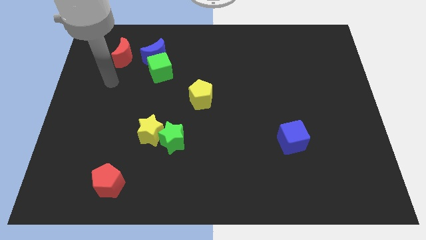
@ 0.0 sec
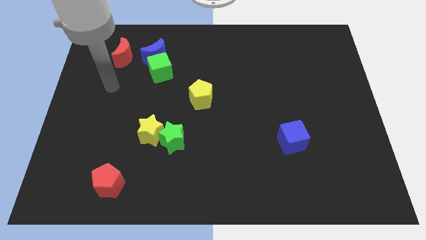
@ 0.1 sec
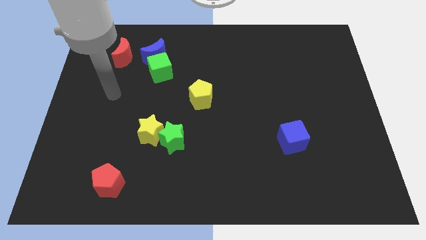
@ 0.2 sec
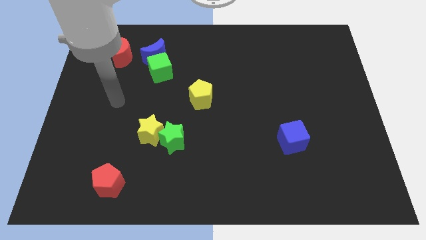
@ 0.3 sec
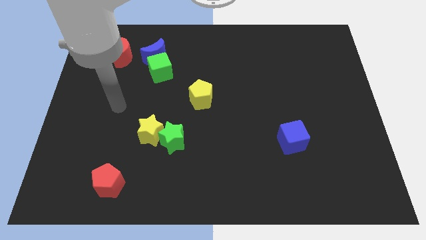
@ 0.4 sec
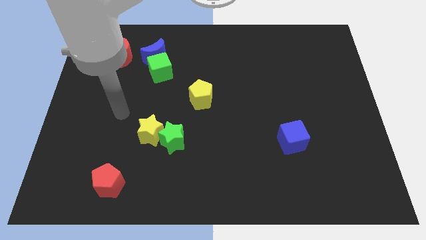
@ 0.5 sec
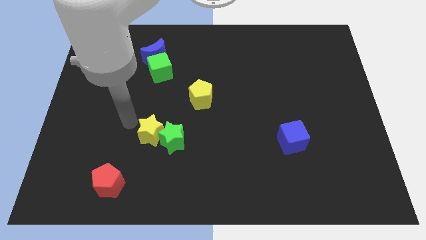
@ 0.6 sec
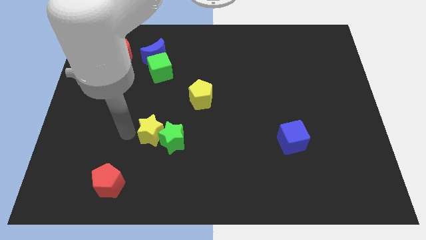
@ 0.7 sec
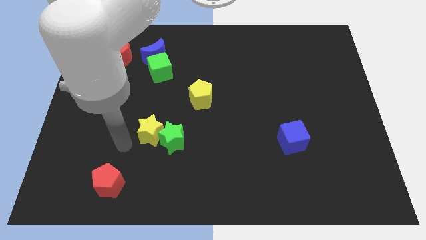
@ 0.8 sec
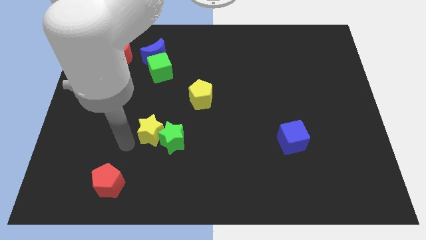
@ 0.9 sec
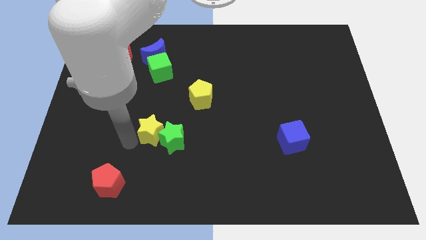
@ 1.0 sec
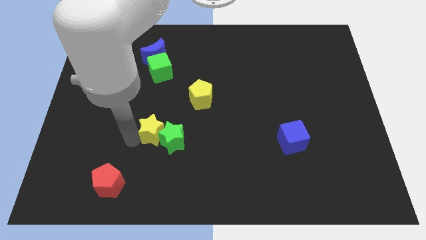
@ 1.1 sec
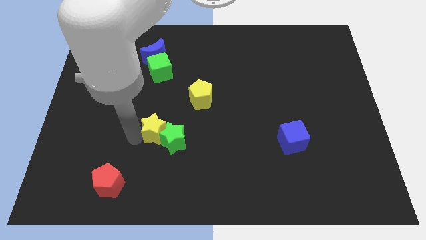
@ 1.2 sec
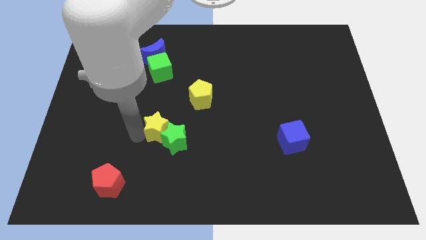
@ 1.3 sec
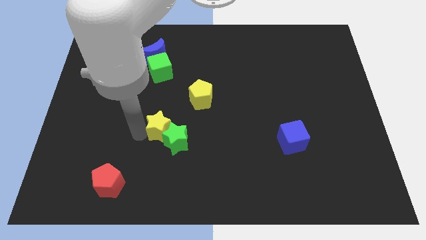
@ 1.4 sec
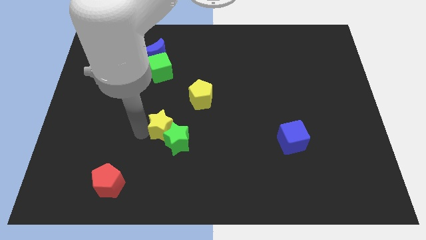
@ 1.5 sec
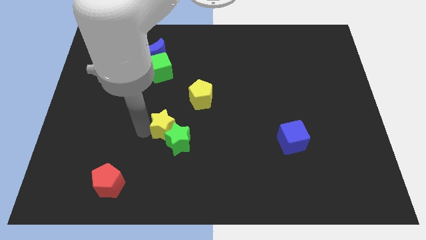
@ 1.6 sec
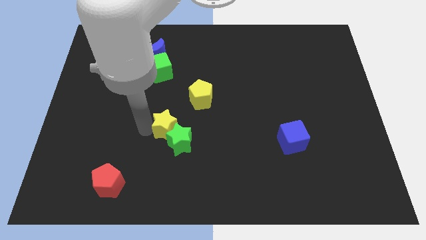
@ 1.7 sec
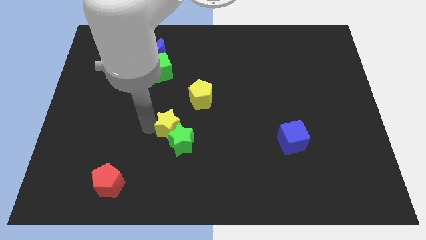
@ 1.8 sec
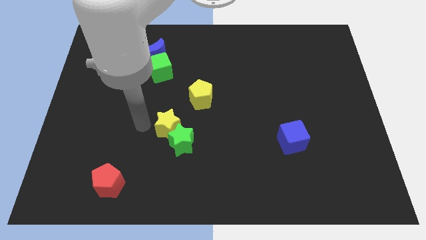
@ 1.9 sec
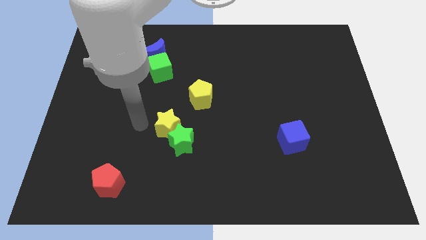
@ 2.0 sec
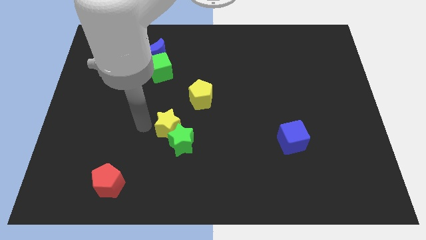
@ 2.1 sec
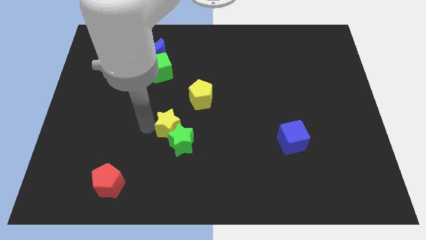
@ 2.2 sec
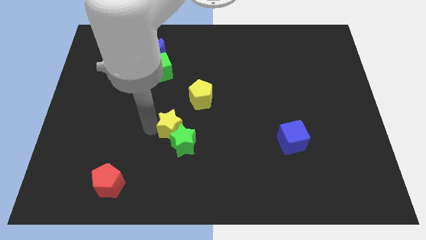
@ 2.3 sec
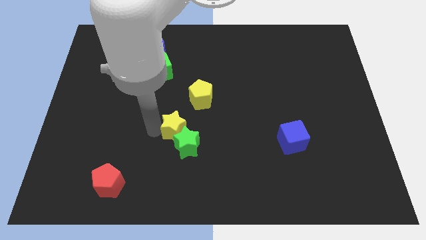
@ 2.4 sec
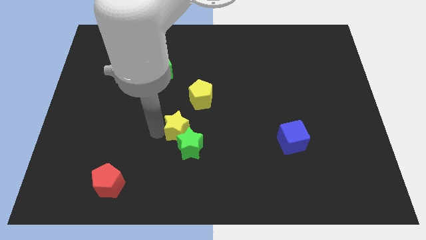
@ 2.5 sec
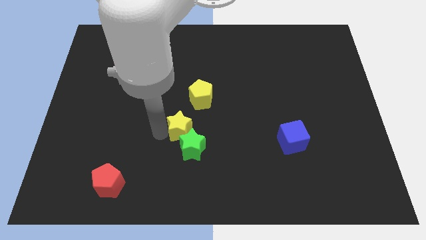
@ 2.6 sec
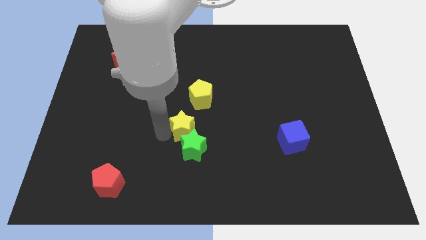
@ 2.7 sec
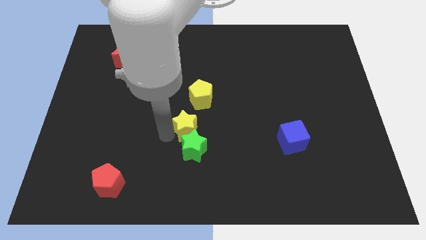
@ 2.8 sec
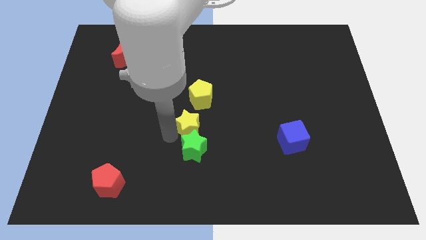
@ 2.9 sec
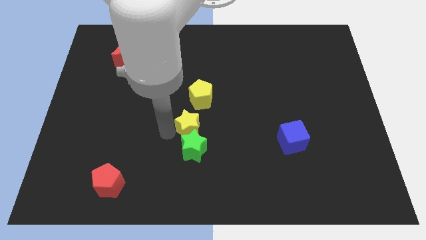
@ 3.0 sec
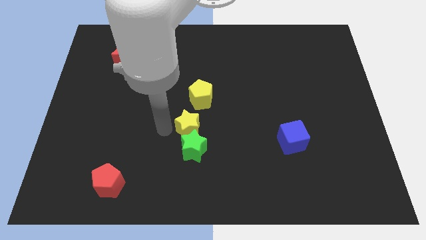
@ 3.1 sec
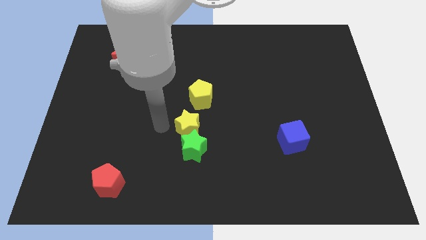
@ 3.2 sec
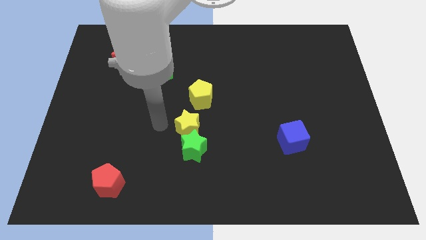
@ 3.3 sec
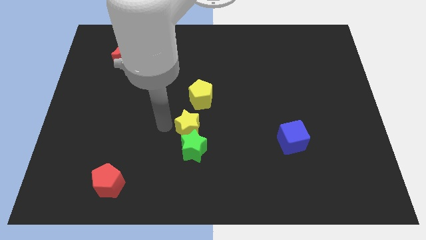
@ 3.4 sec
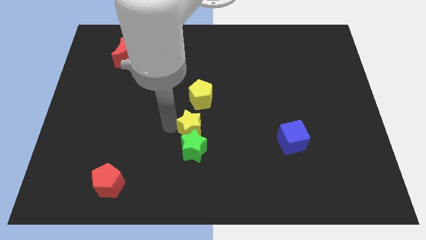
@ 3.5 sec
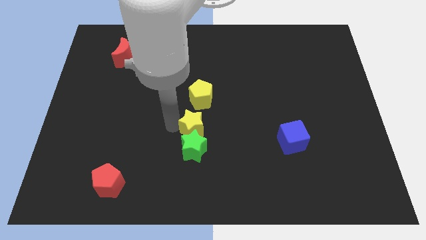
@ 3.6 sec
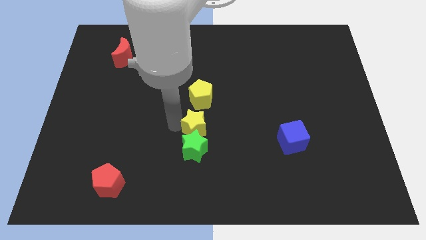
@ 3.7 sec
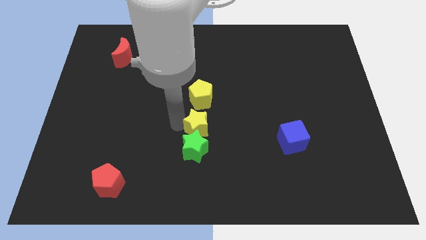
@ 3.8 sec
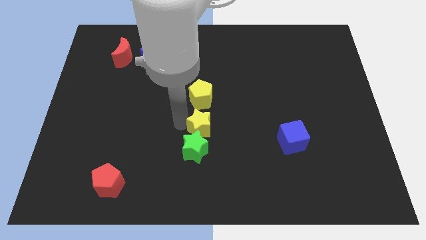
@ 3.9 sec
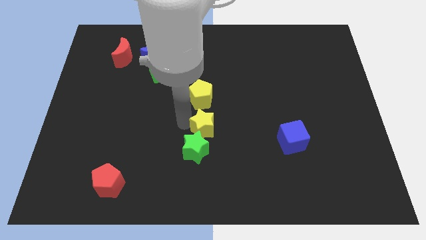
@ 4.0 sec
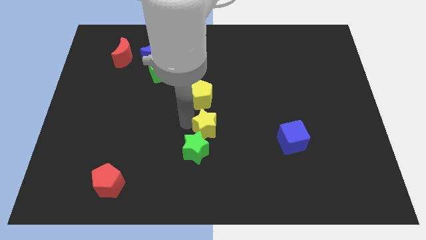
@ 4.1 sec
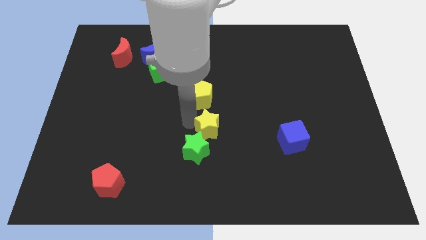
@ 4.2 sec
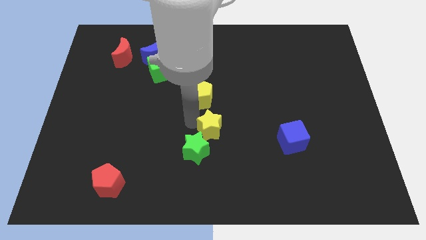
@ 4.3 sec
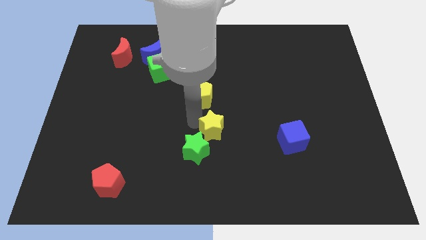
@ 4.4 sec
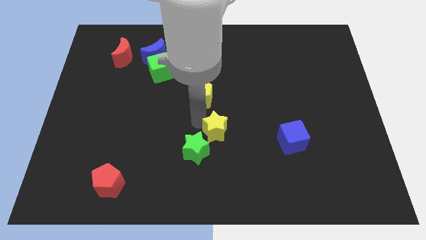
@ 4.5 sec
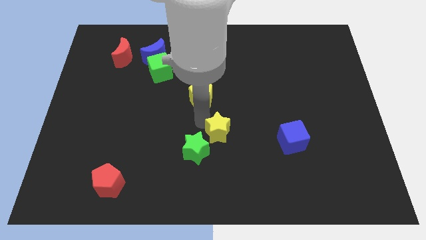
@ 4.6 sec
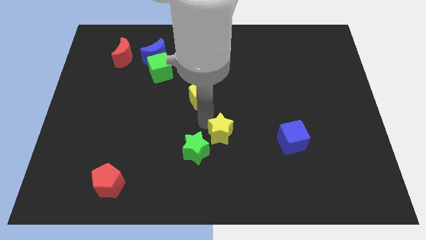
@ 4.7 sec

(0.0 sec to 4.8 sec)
put the yellow star just left of the blue cube

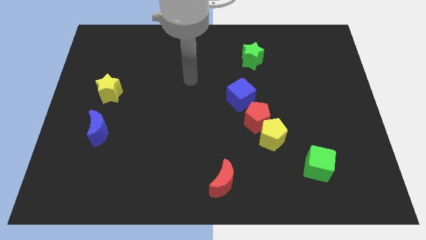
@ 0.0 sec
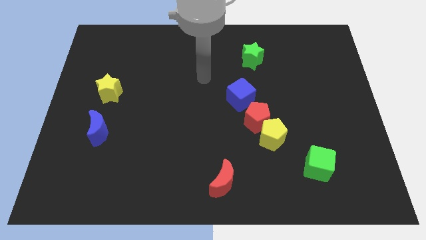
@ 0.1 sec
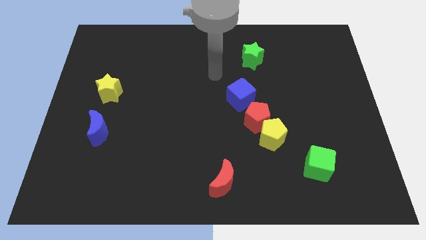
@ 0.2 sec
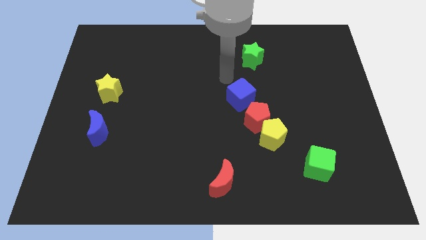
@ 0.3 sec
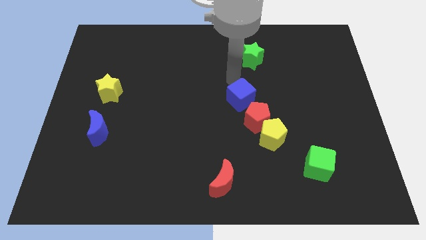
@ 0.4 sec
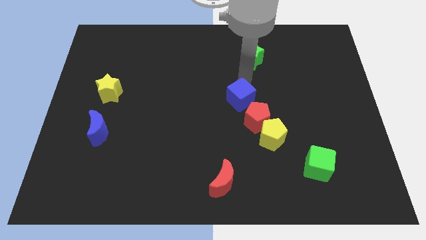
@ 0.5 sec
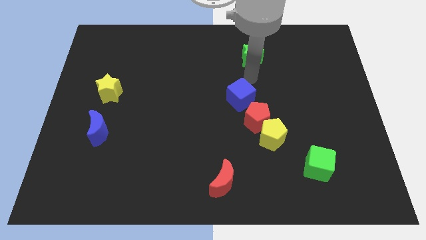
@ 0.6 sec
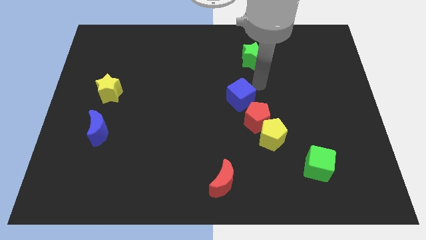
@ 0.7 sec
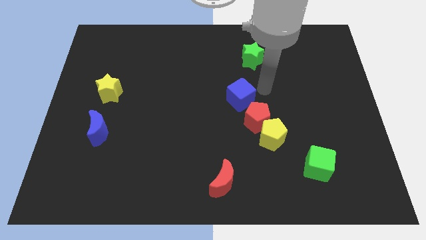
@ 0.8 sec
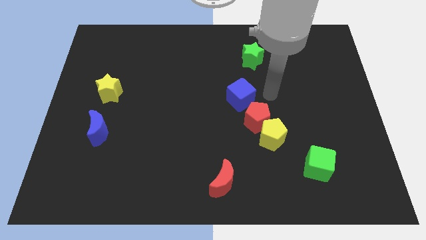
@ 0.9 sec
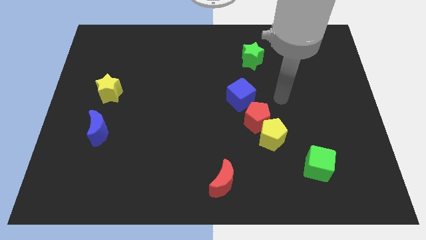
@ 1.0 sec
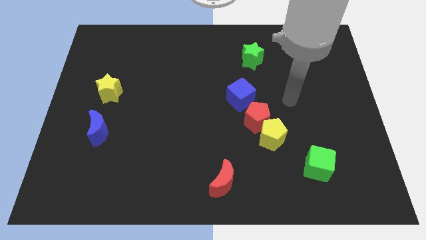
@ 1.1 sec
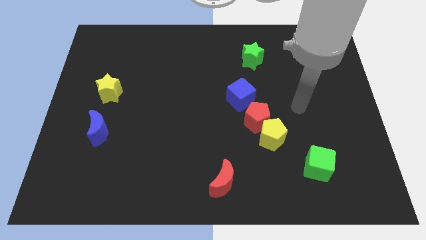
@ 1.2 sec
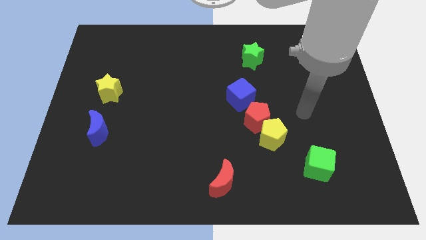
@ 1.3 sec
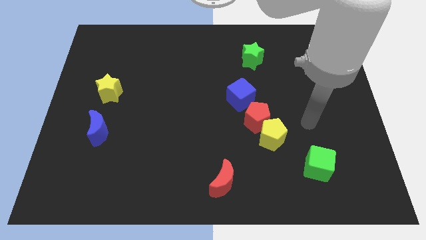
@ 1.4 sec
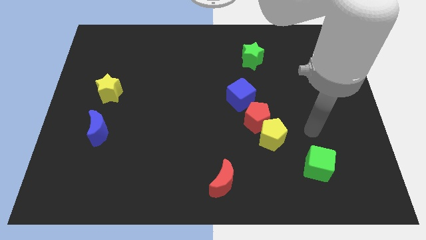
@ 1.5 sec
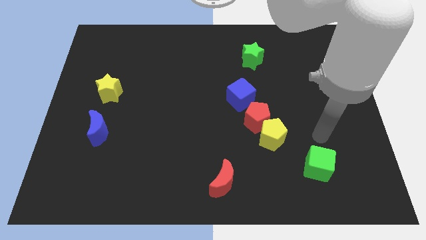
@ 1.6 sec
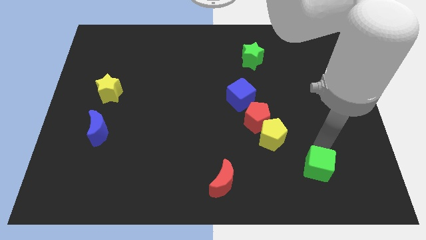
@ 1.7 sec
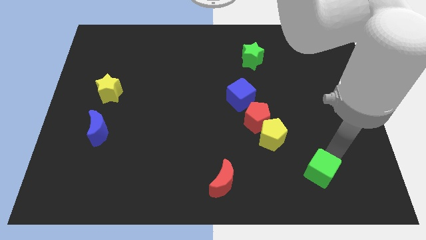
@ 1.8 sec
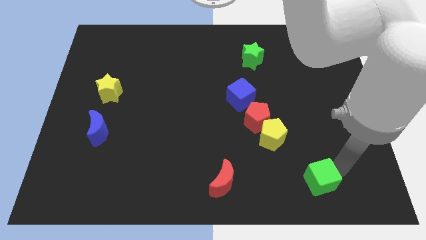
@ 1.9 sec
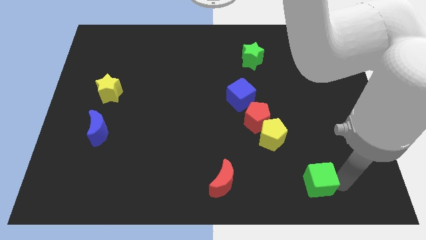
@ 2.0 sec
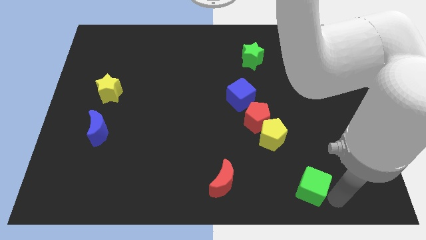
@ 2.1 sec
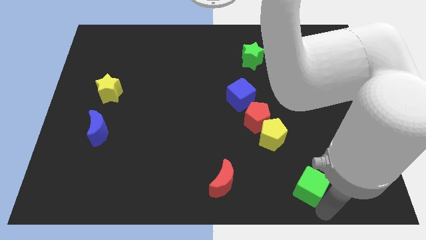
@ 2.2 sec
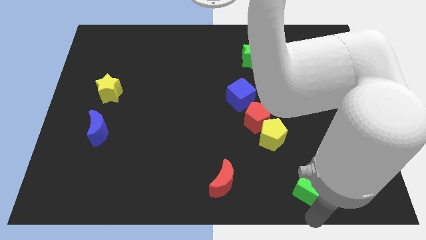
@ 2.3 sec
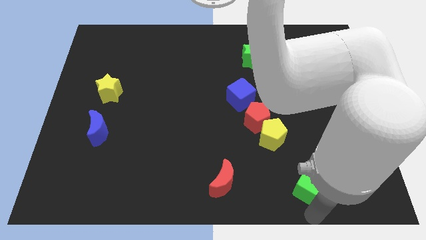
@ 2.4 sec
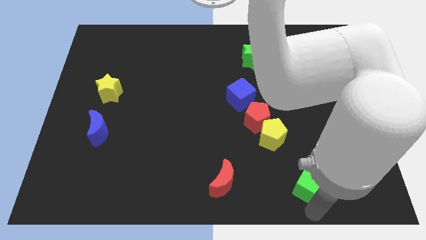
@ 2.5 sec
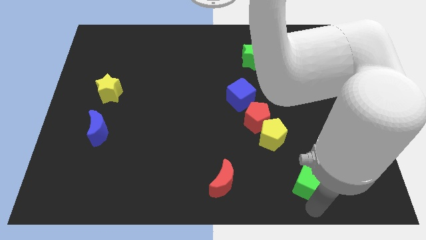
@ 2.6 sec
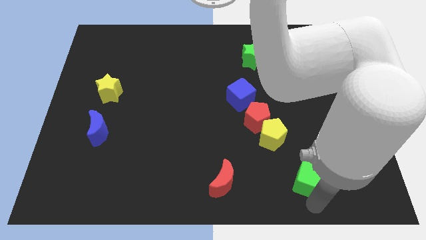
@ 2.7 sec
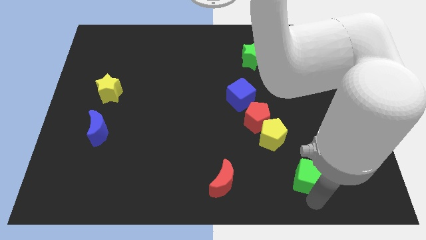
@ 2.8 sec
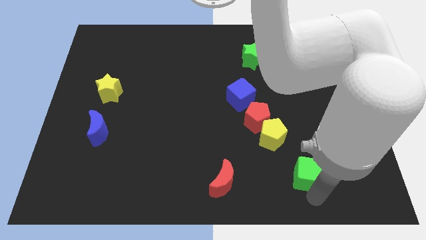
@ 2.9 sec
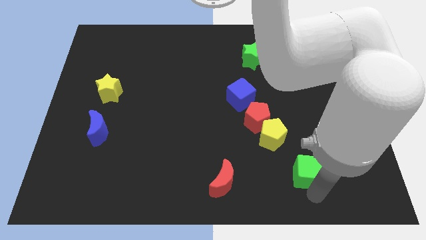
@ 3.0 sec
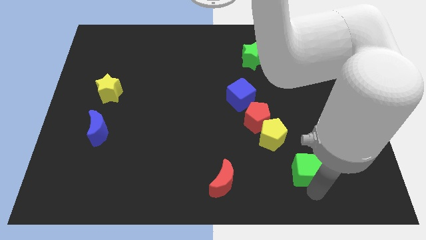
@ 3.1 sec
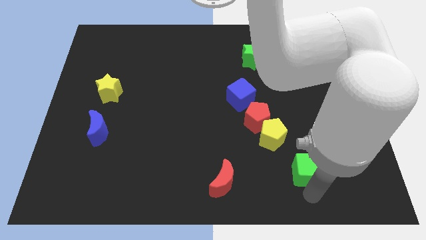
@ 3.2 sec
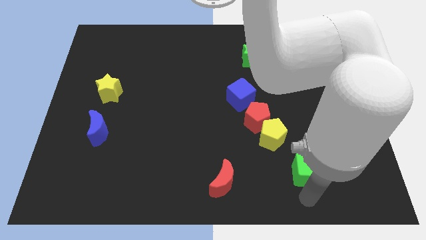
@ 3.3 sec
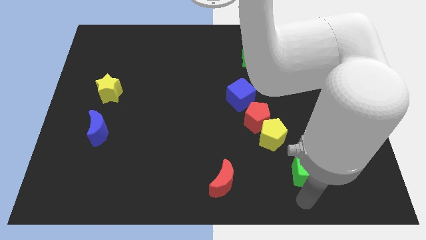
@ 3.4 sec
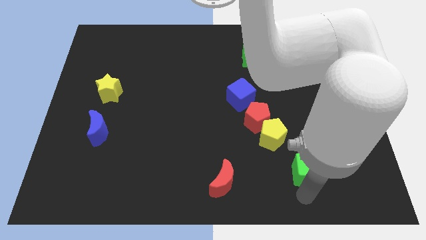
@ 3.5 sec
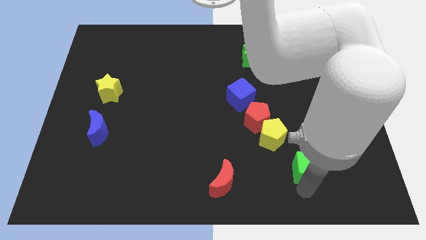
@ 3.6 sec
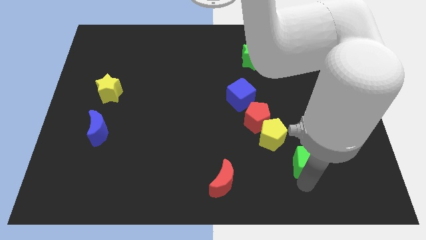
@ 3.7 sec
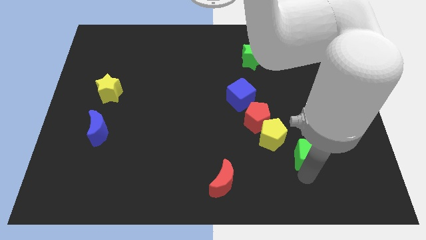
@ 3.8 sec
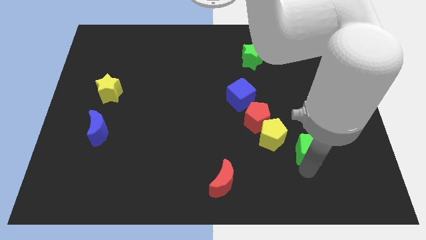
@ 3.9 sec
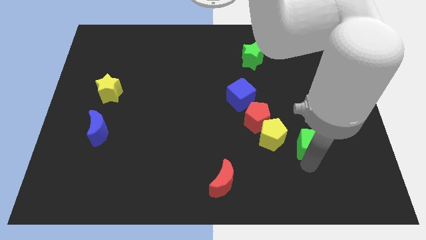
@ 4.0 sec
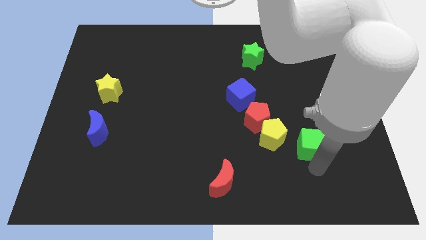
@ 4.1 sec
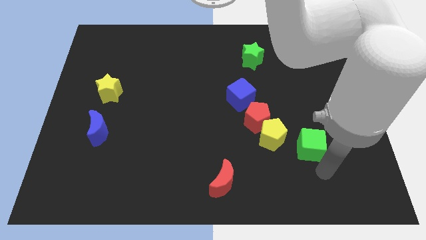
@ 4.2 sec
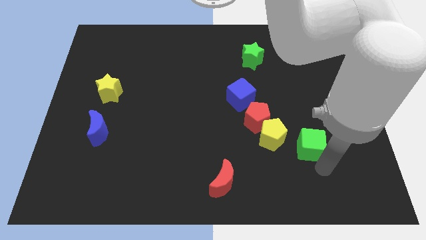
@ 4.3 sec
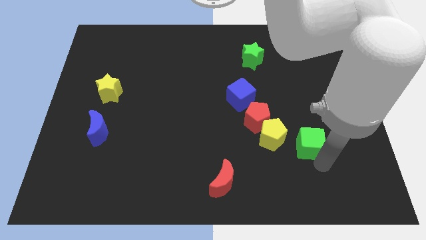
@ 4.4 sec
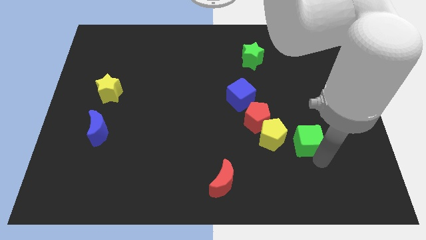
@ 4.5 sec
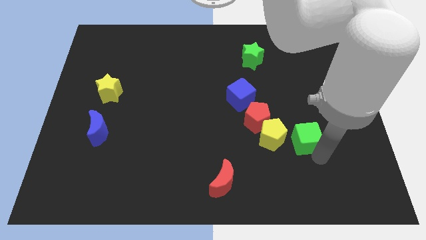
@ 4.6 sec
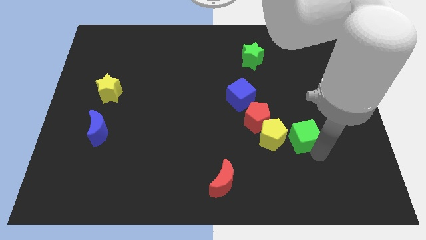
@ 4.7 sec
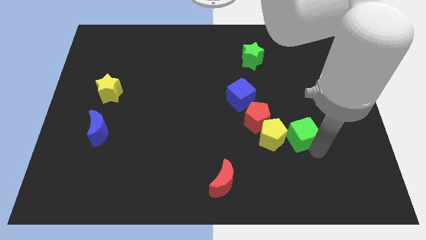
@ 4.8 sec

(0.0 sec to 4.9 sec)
slide the green cube to the top right of the yellow pentagon
